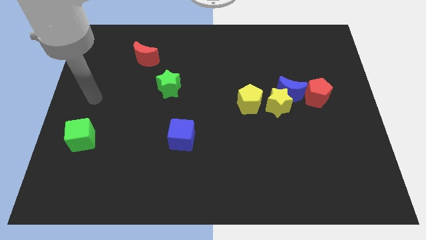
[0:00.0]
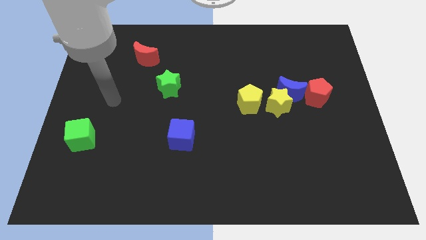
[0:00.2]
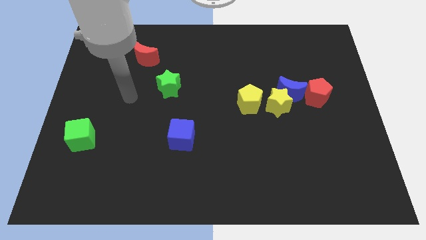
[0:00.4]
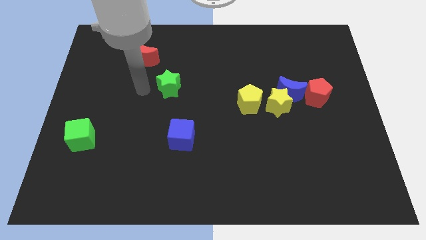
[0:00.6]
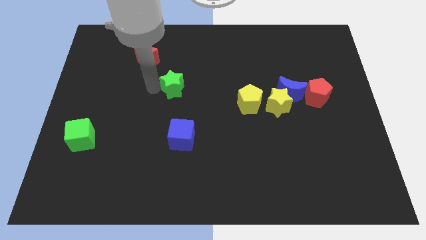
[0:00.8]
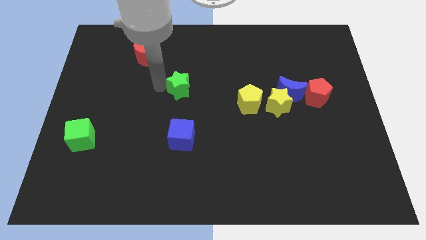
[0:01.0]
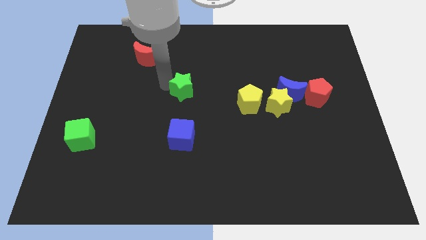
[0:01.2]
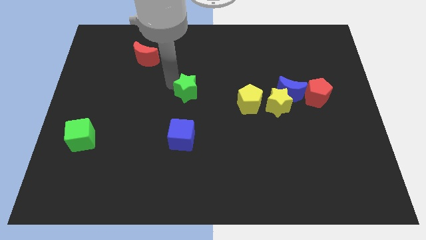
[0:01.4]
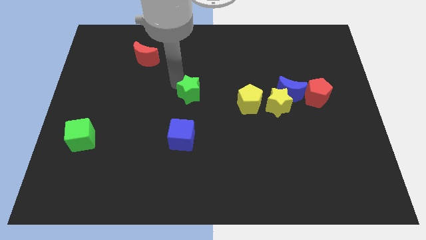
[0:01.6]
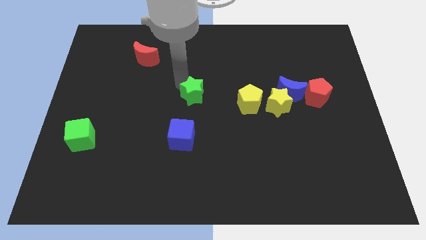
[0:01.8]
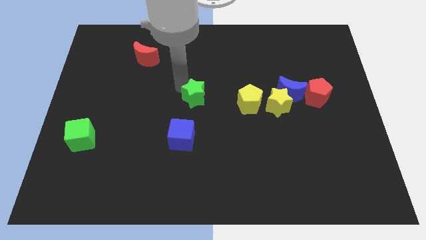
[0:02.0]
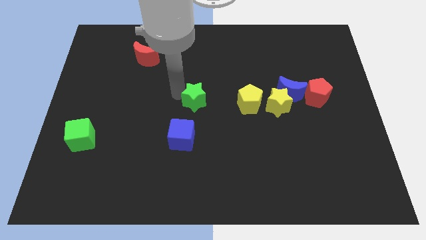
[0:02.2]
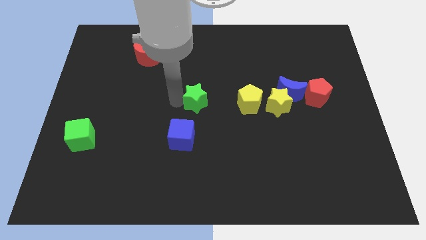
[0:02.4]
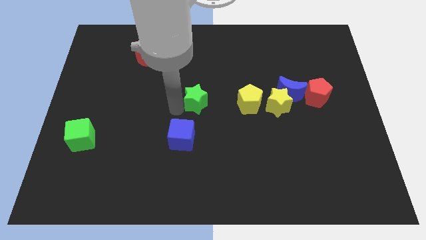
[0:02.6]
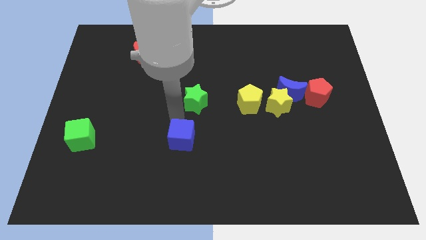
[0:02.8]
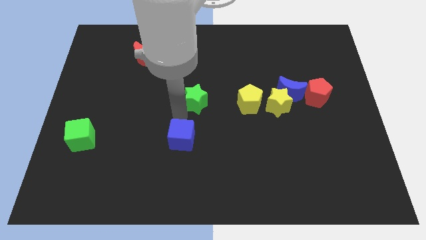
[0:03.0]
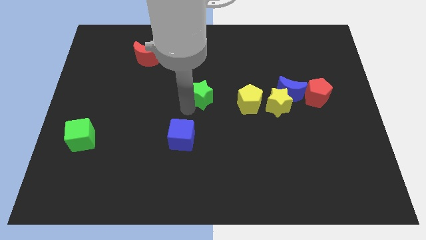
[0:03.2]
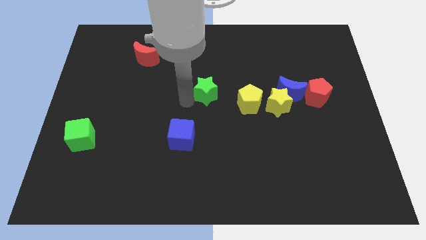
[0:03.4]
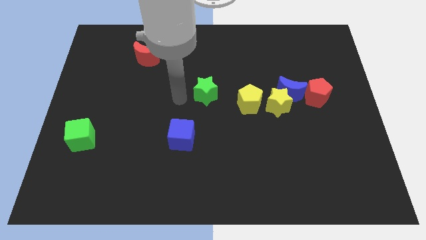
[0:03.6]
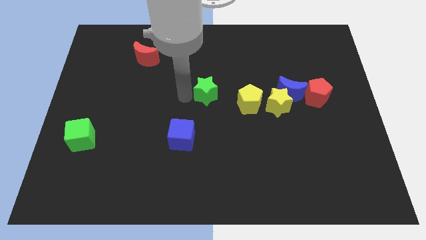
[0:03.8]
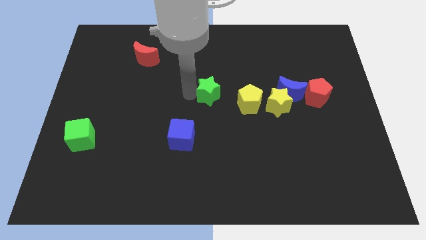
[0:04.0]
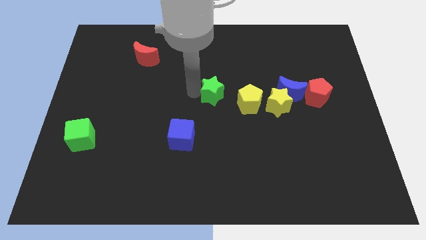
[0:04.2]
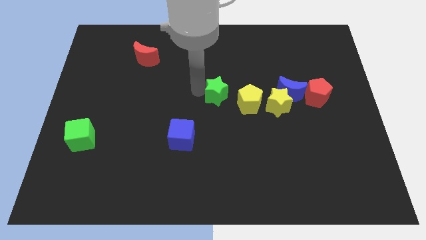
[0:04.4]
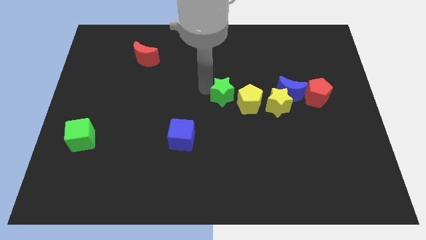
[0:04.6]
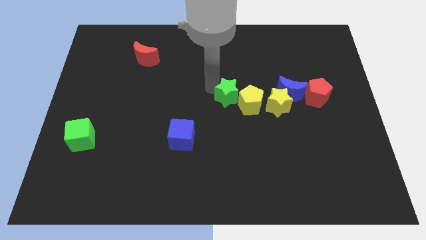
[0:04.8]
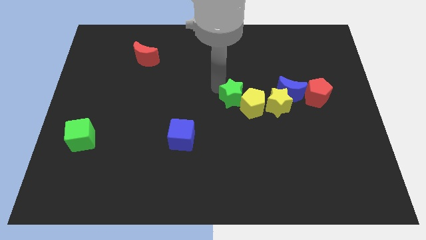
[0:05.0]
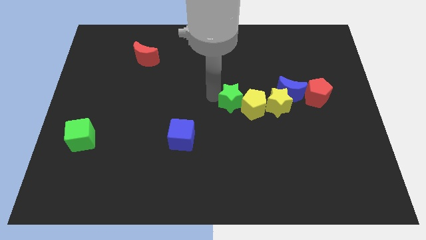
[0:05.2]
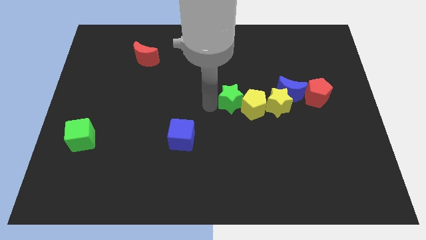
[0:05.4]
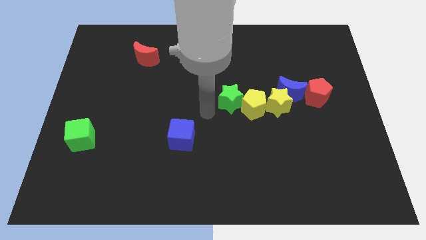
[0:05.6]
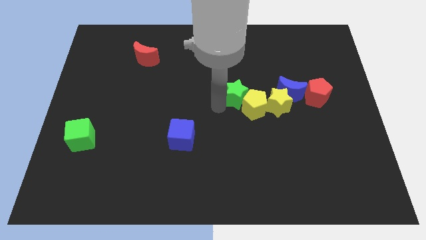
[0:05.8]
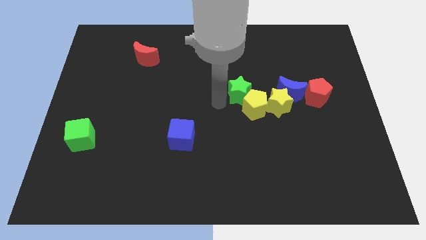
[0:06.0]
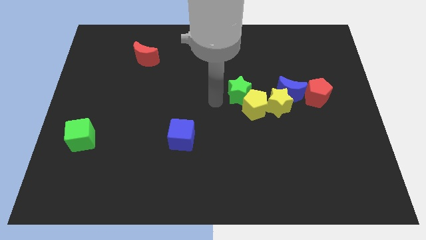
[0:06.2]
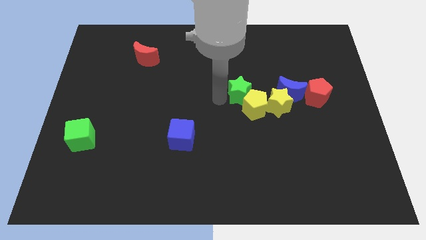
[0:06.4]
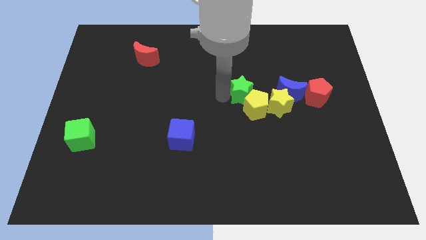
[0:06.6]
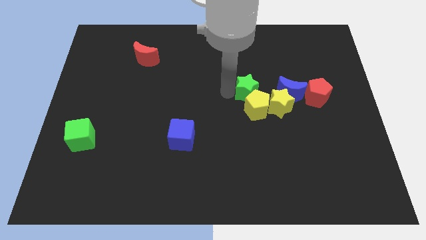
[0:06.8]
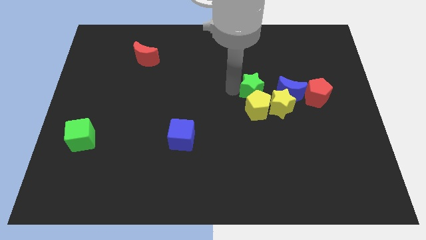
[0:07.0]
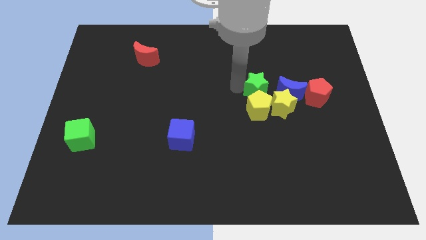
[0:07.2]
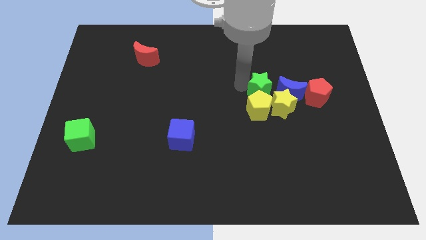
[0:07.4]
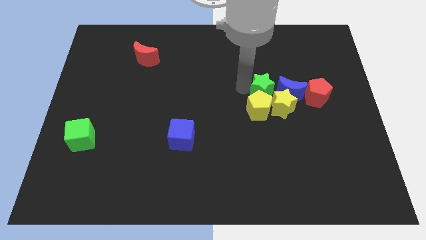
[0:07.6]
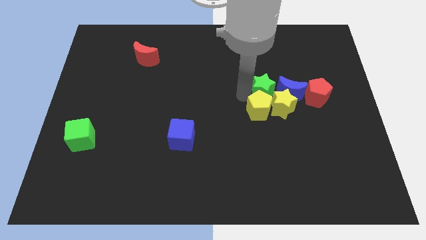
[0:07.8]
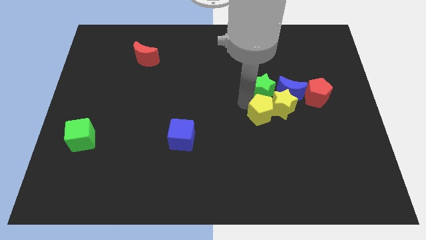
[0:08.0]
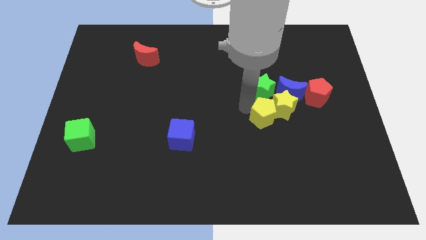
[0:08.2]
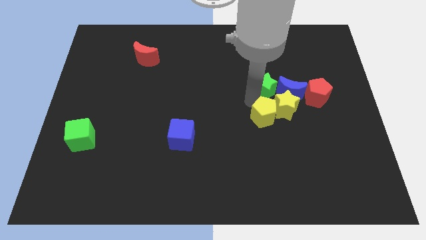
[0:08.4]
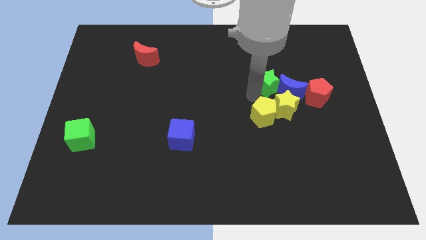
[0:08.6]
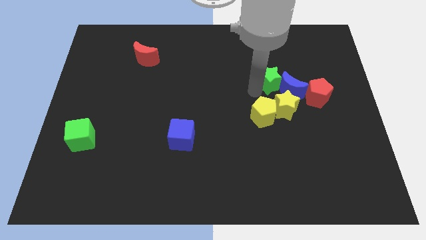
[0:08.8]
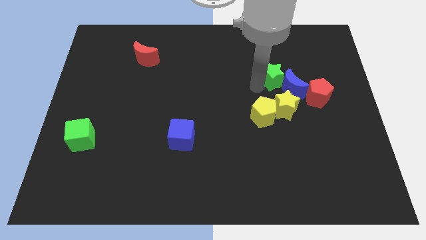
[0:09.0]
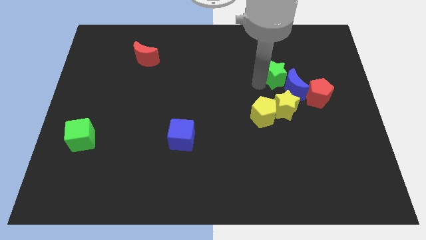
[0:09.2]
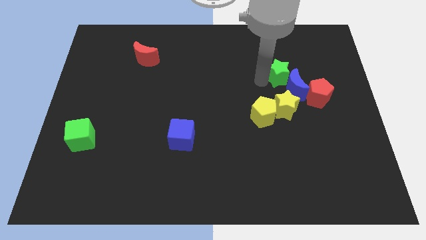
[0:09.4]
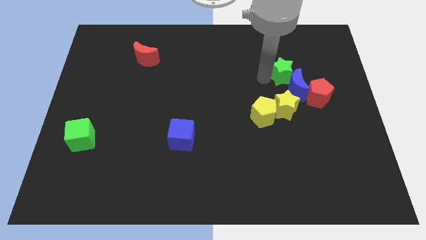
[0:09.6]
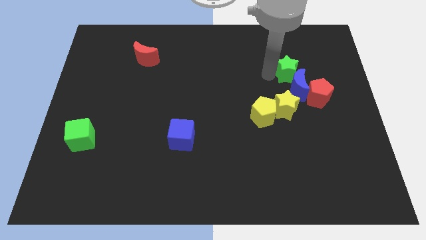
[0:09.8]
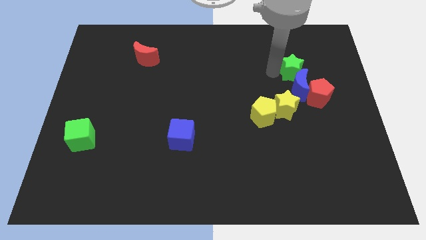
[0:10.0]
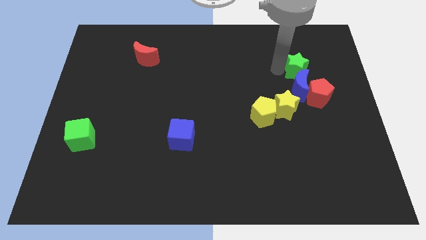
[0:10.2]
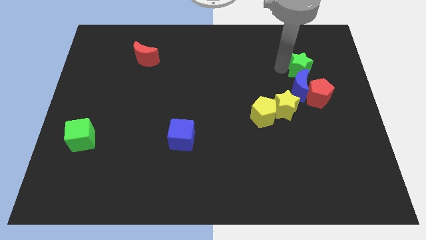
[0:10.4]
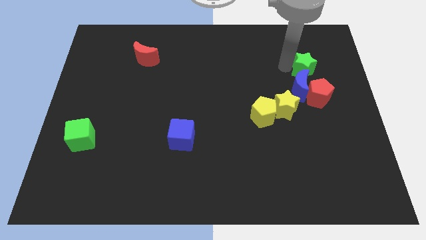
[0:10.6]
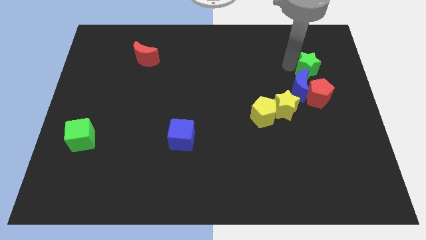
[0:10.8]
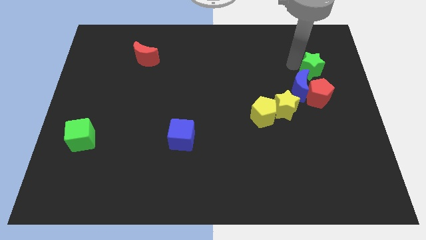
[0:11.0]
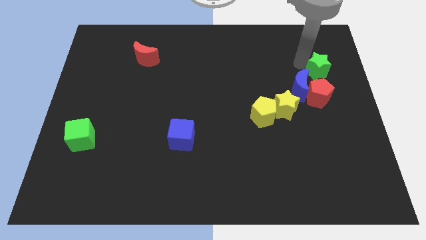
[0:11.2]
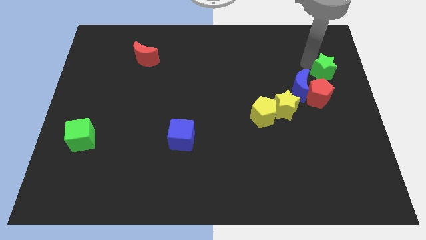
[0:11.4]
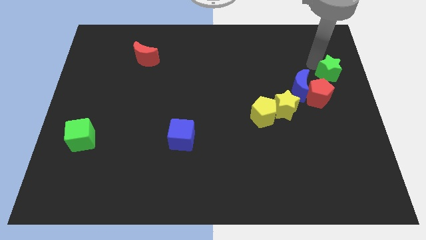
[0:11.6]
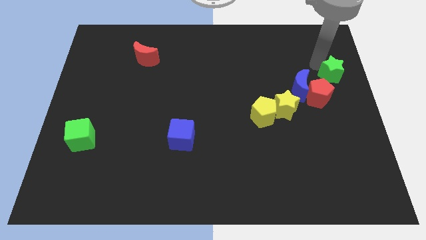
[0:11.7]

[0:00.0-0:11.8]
slide the green star just right of the blue moon

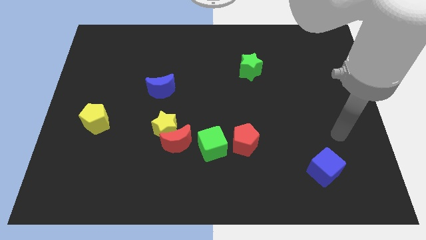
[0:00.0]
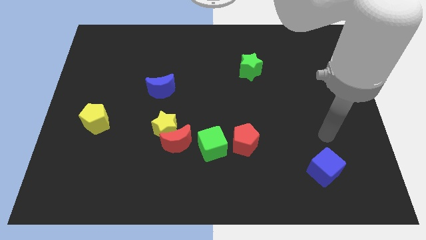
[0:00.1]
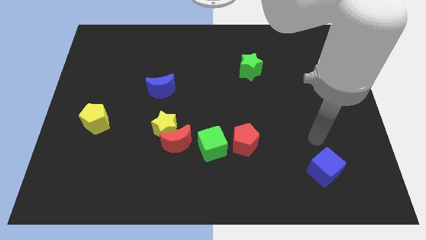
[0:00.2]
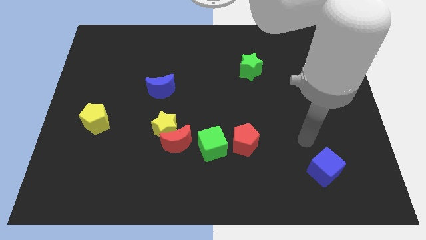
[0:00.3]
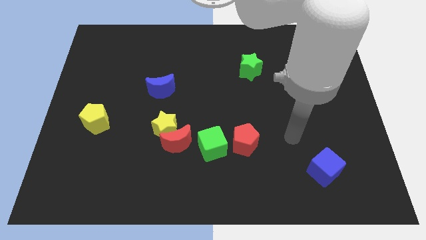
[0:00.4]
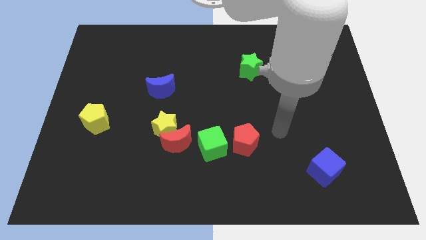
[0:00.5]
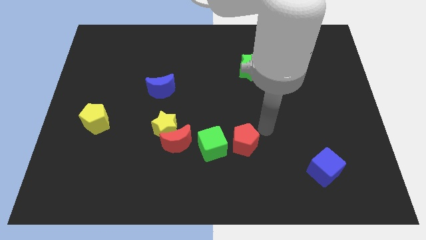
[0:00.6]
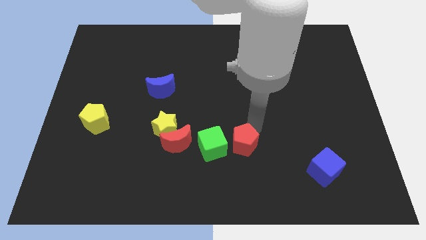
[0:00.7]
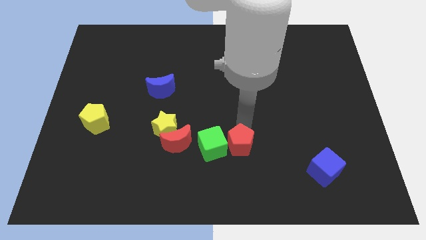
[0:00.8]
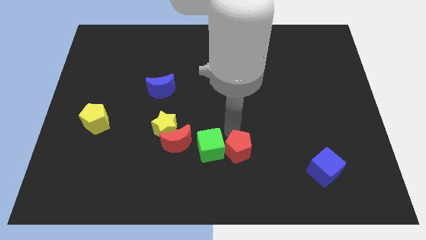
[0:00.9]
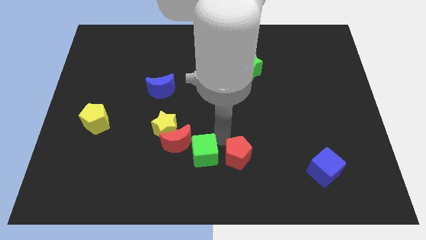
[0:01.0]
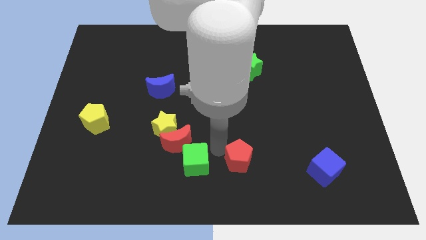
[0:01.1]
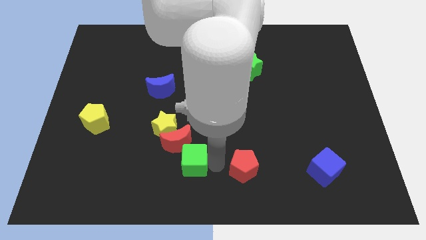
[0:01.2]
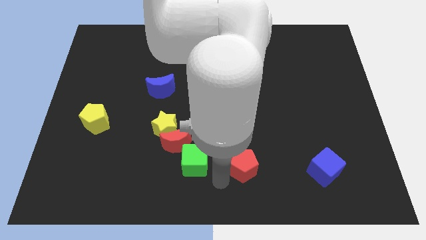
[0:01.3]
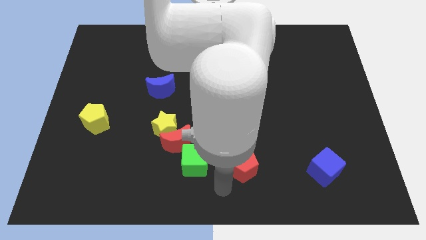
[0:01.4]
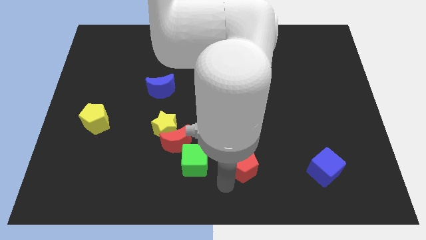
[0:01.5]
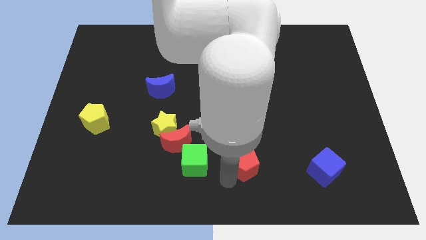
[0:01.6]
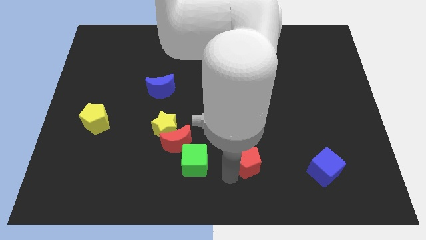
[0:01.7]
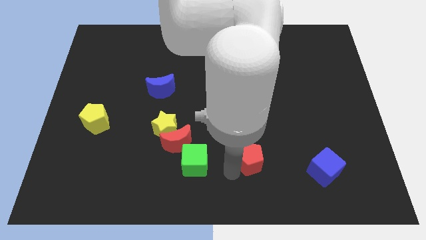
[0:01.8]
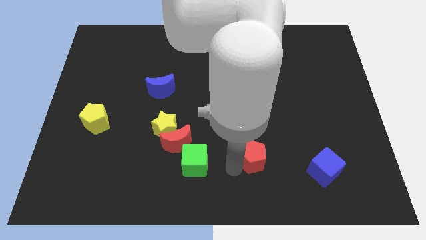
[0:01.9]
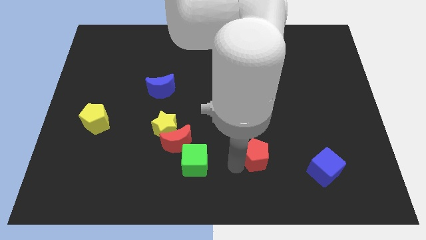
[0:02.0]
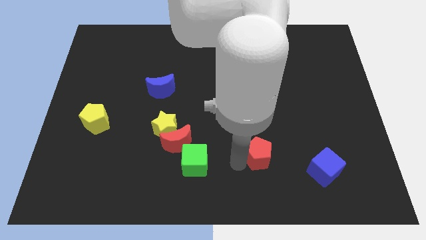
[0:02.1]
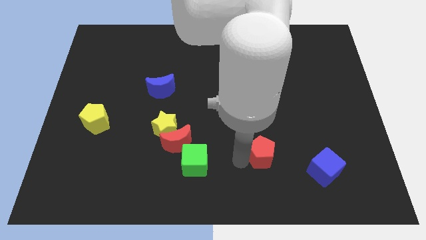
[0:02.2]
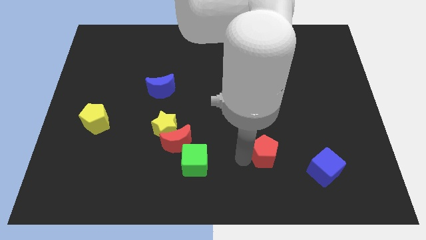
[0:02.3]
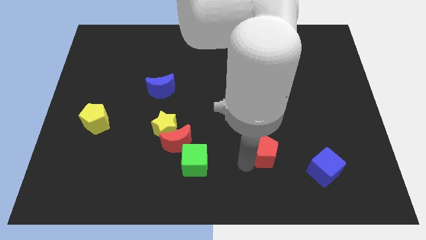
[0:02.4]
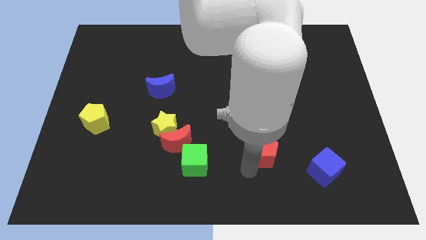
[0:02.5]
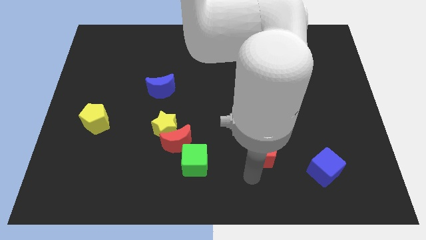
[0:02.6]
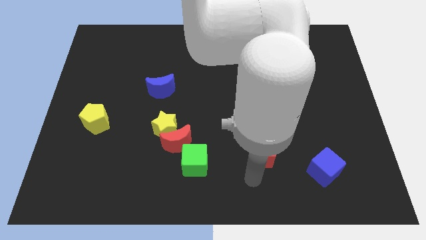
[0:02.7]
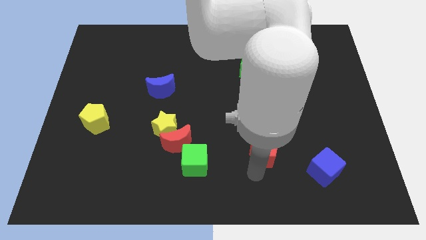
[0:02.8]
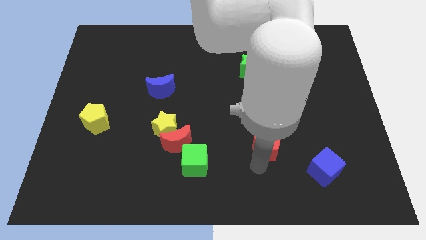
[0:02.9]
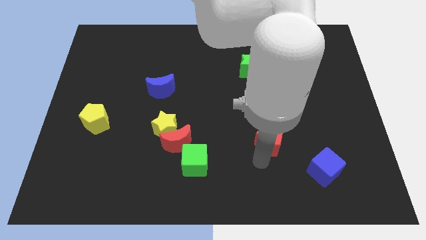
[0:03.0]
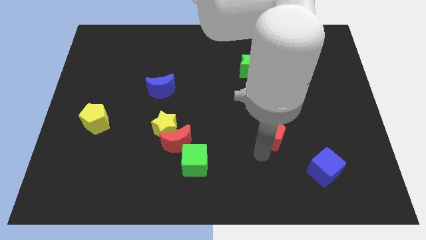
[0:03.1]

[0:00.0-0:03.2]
move the red pentagon to the top left of the blue cube
